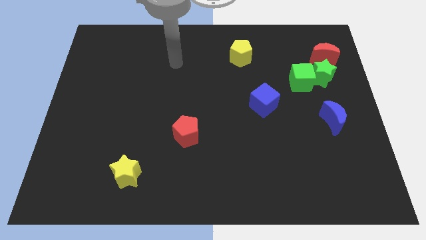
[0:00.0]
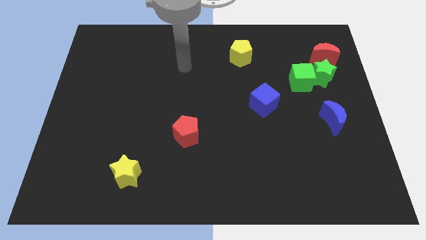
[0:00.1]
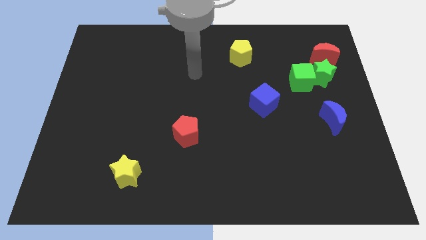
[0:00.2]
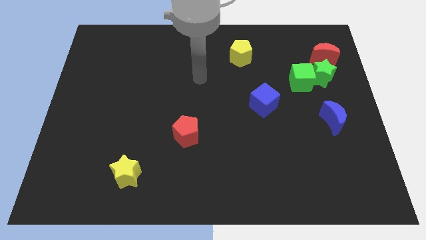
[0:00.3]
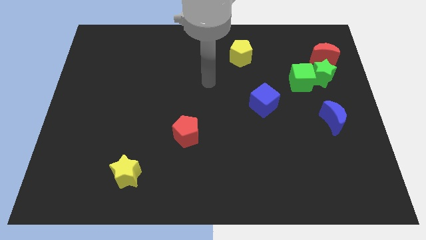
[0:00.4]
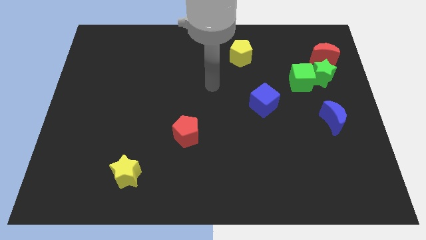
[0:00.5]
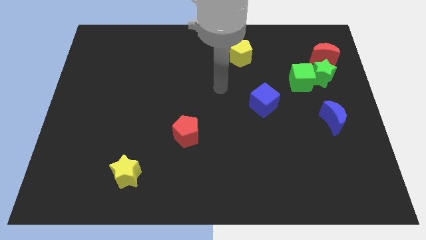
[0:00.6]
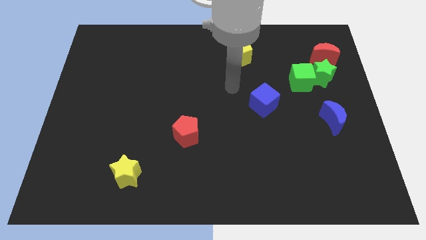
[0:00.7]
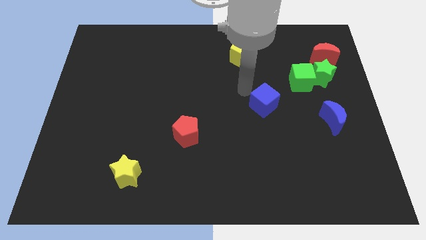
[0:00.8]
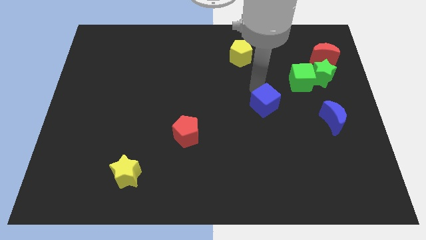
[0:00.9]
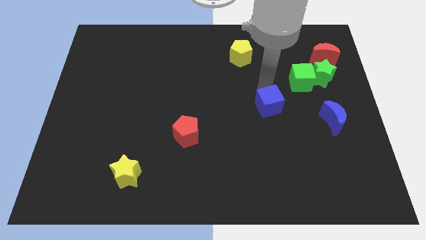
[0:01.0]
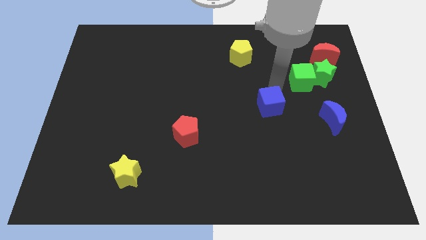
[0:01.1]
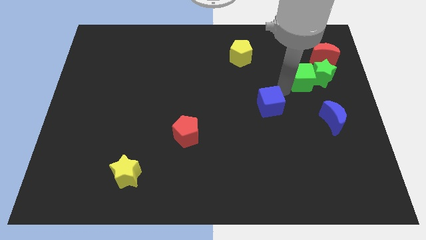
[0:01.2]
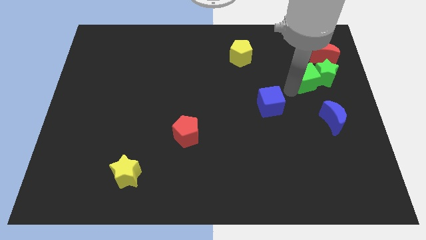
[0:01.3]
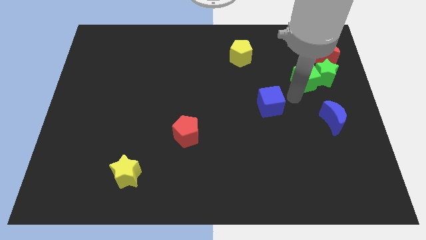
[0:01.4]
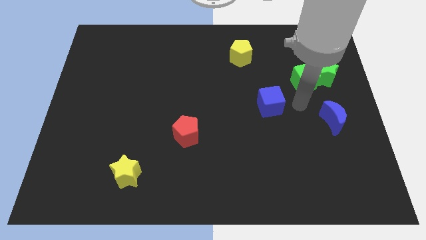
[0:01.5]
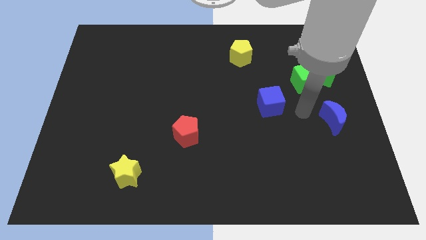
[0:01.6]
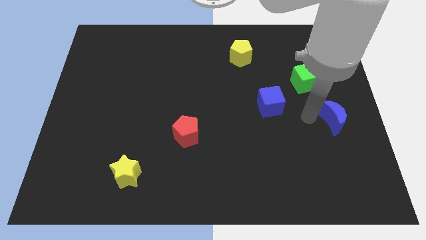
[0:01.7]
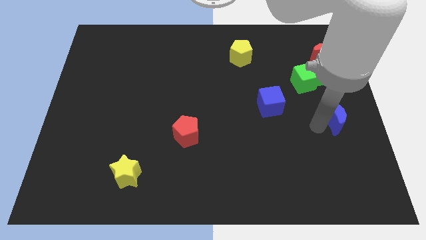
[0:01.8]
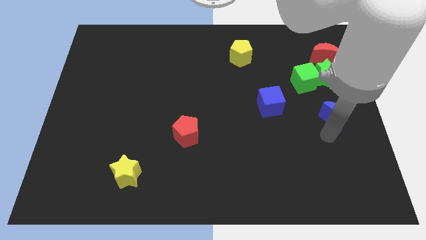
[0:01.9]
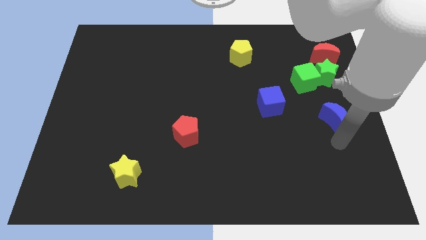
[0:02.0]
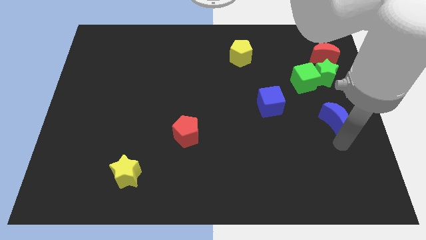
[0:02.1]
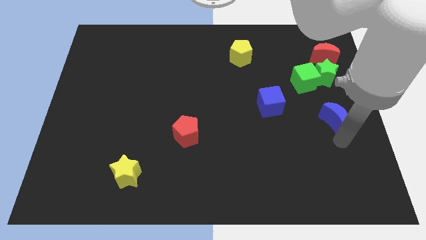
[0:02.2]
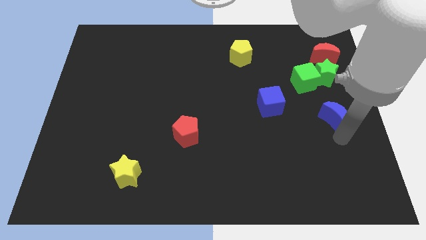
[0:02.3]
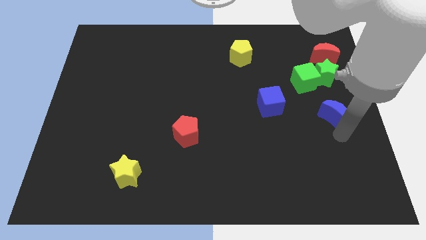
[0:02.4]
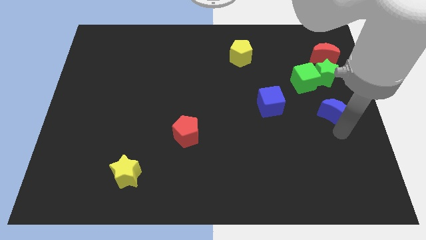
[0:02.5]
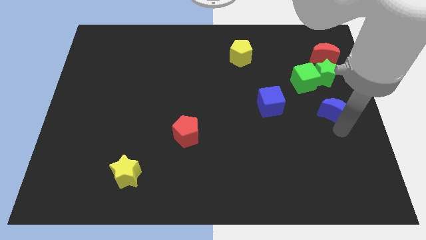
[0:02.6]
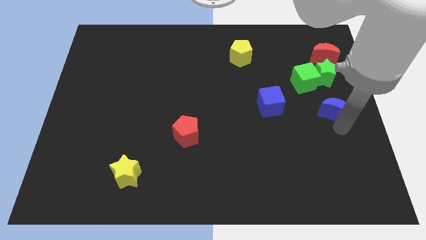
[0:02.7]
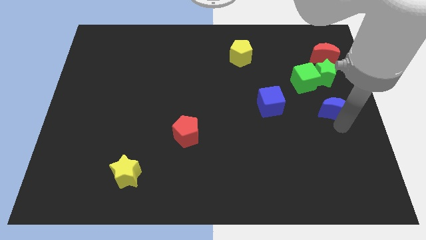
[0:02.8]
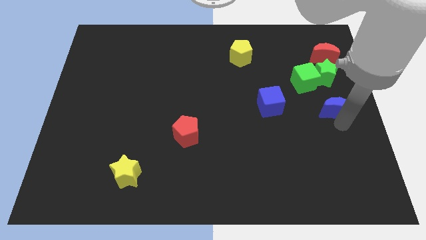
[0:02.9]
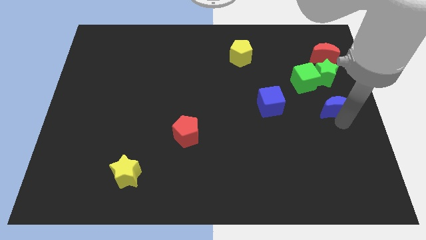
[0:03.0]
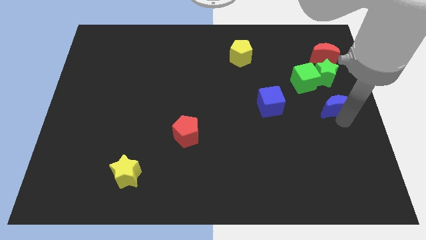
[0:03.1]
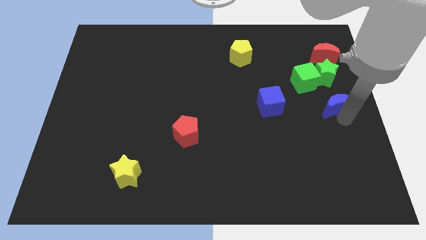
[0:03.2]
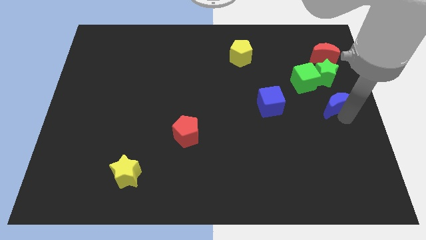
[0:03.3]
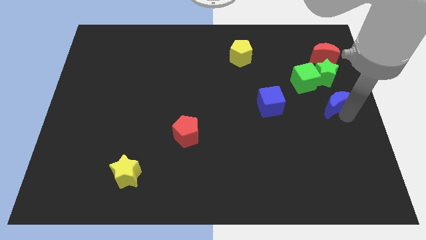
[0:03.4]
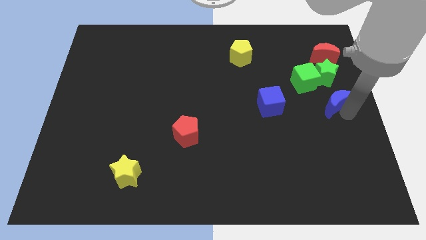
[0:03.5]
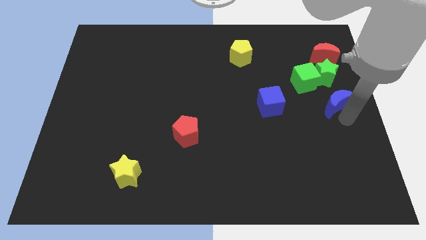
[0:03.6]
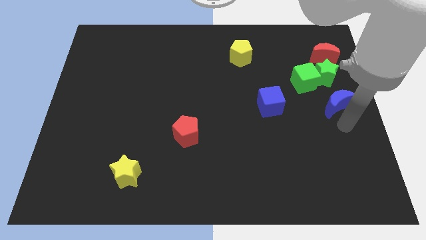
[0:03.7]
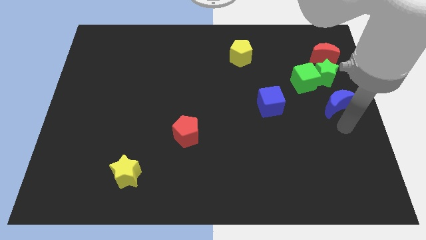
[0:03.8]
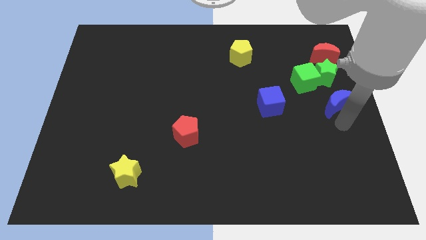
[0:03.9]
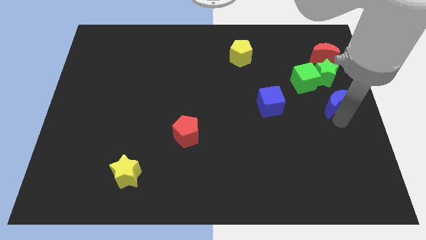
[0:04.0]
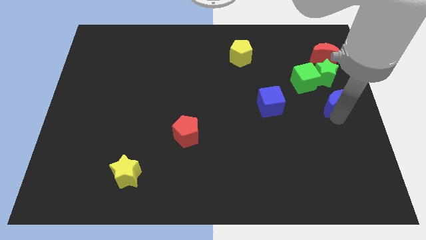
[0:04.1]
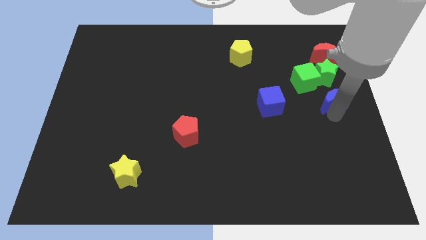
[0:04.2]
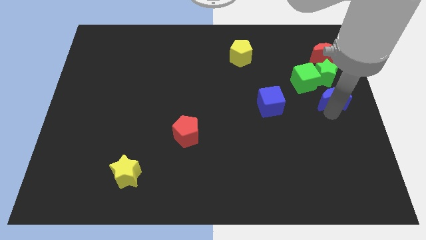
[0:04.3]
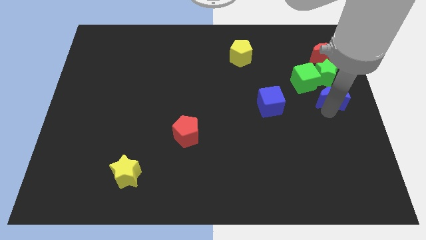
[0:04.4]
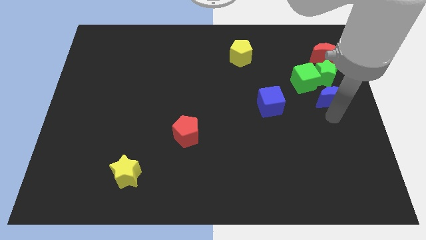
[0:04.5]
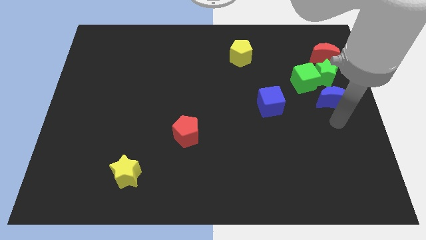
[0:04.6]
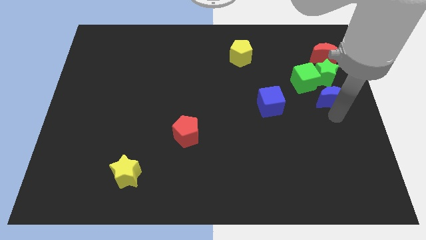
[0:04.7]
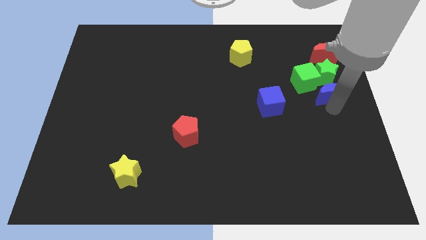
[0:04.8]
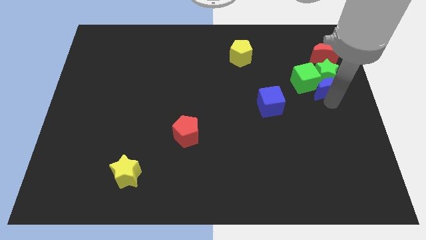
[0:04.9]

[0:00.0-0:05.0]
slide the blue moon to the green star

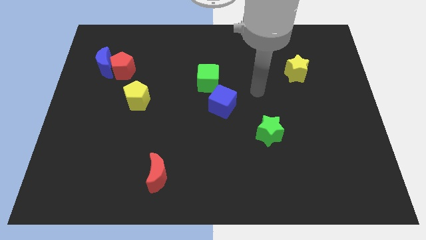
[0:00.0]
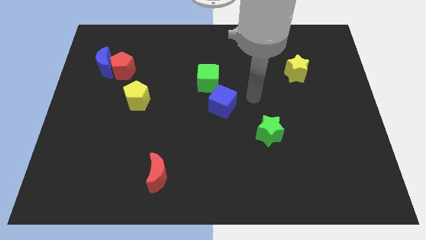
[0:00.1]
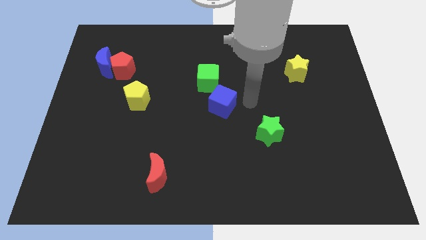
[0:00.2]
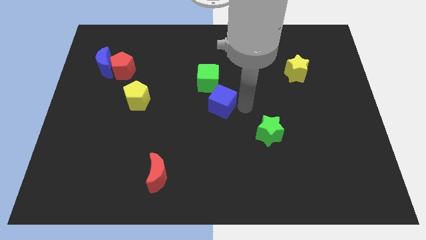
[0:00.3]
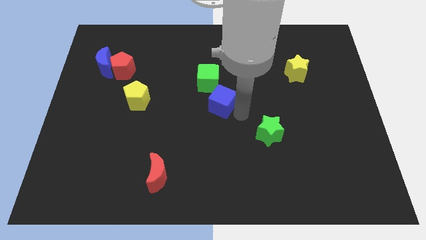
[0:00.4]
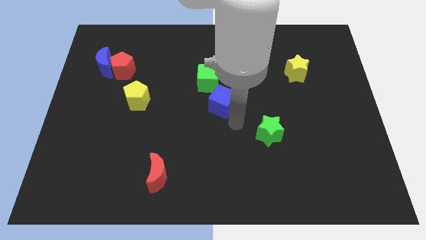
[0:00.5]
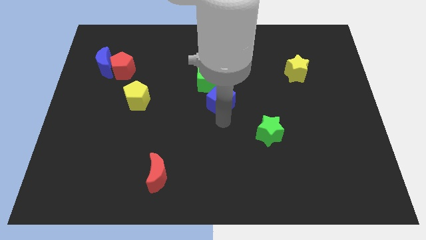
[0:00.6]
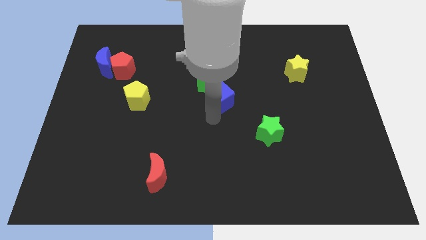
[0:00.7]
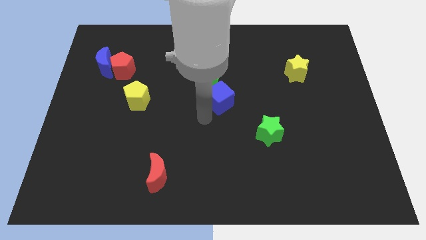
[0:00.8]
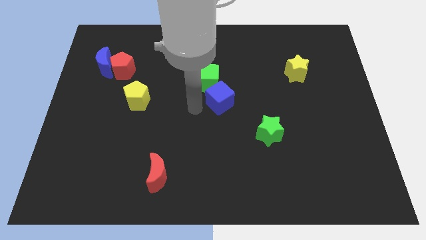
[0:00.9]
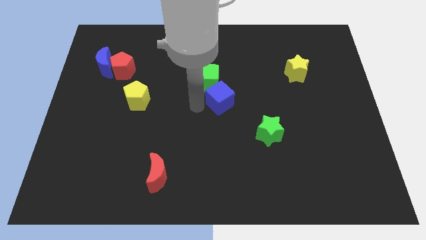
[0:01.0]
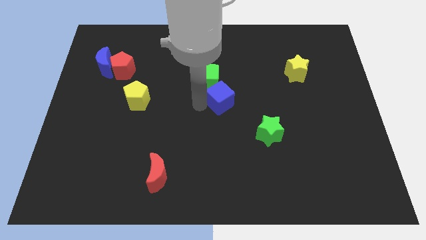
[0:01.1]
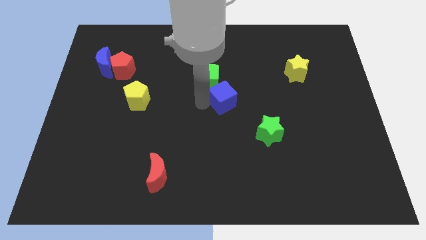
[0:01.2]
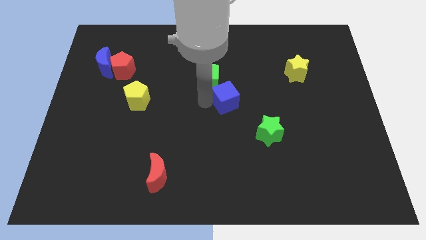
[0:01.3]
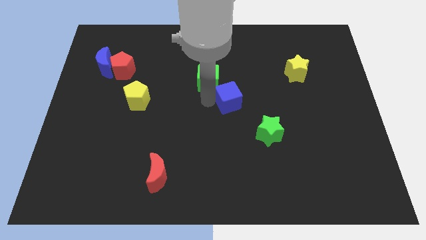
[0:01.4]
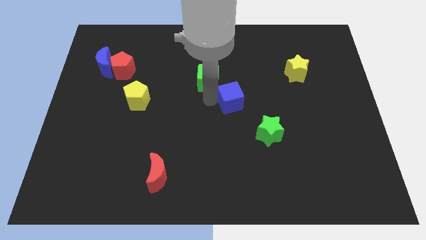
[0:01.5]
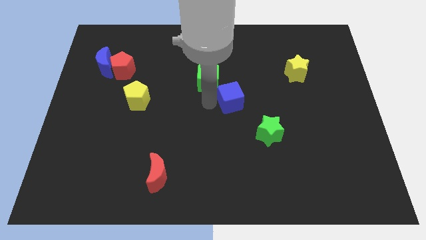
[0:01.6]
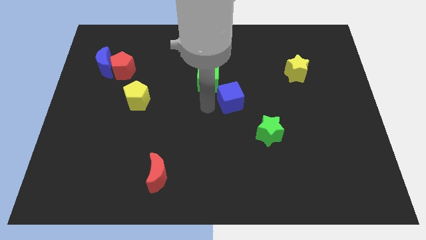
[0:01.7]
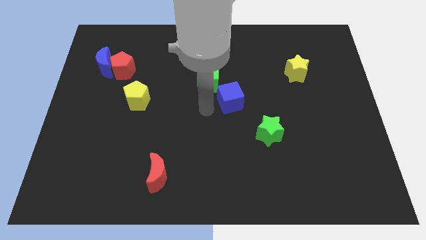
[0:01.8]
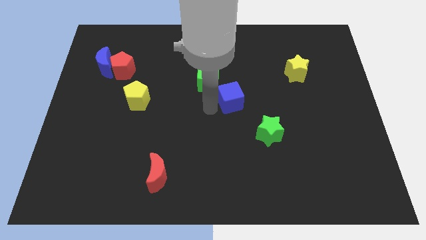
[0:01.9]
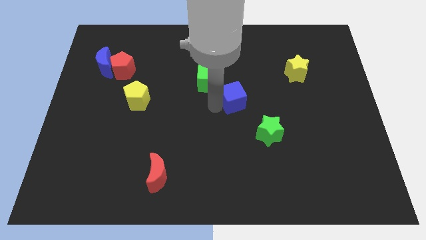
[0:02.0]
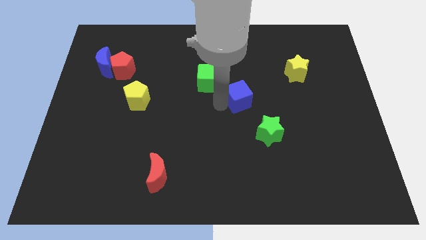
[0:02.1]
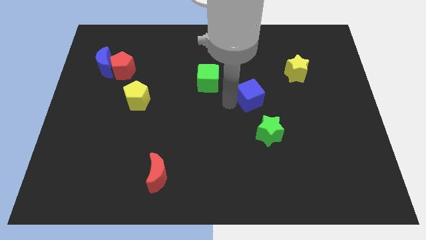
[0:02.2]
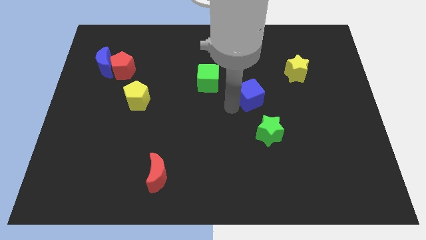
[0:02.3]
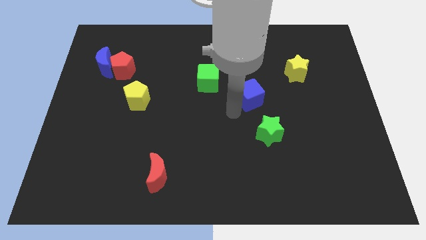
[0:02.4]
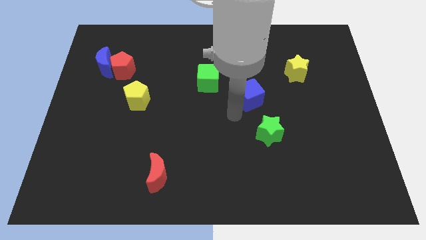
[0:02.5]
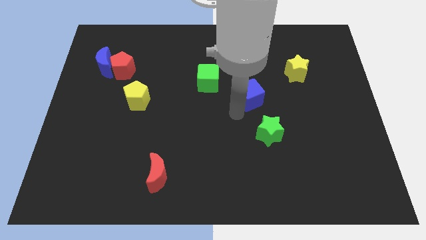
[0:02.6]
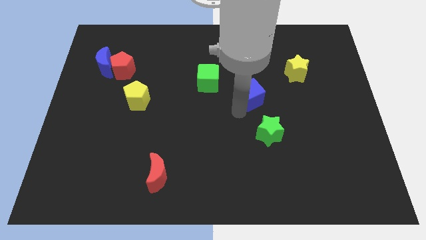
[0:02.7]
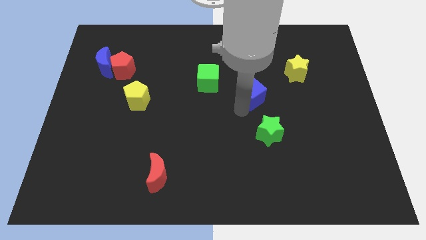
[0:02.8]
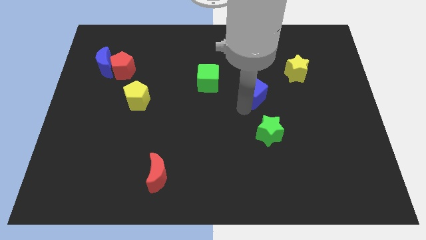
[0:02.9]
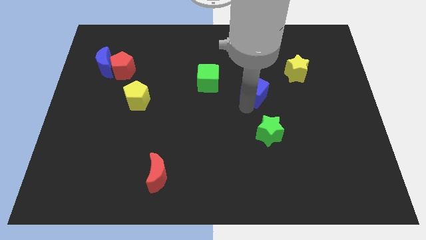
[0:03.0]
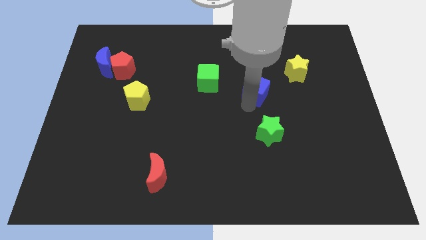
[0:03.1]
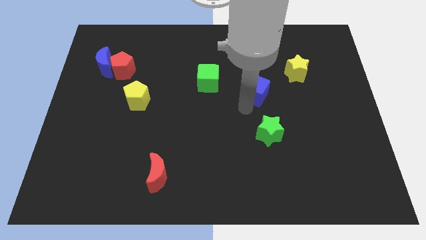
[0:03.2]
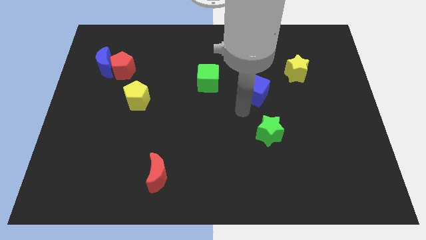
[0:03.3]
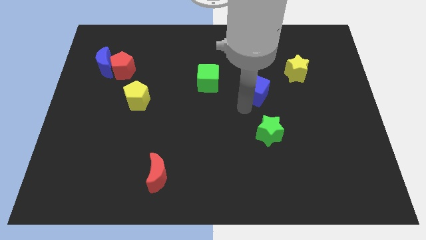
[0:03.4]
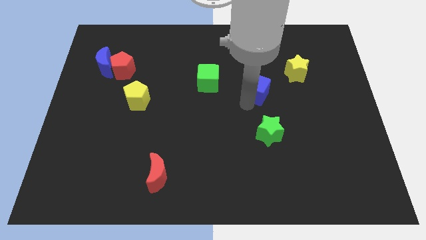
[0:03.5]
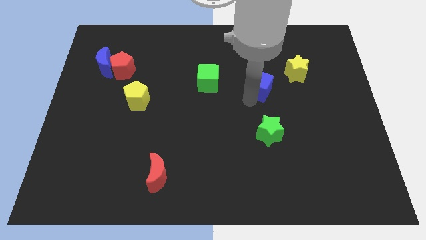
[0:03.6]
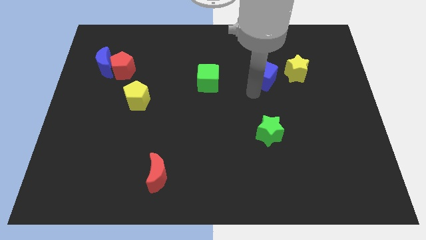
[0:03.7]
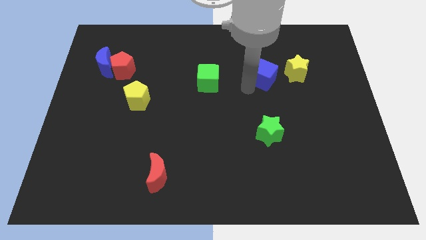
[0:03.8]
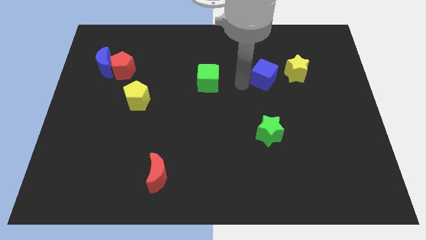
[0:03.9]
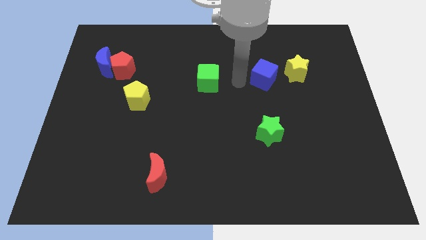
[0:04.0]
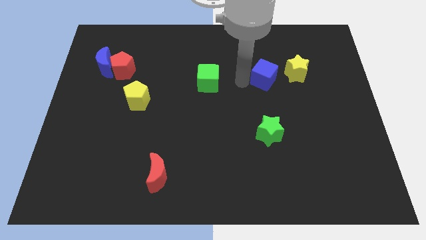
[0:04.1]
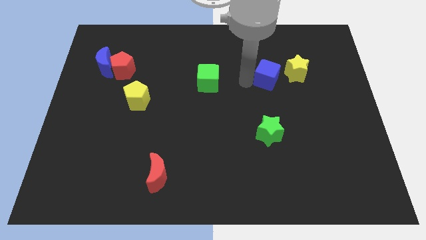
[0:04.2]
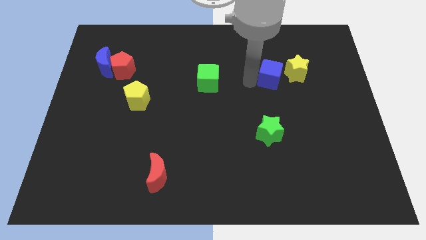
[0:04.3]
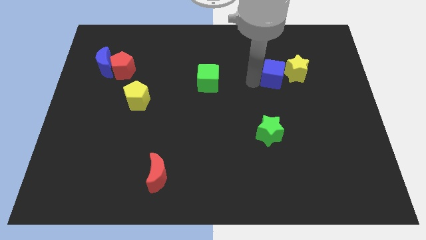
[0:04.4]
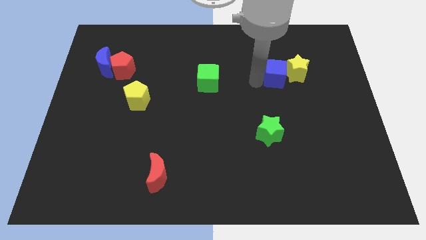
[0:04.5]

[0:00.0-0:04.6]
put the blue cube to the yellow star
